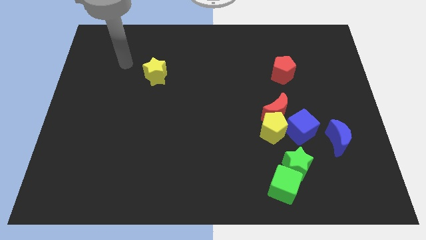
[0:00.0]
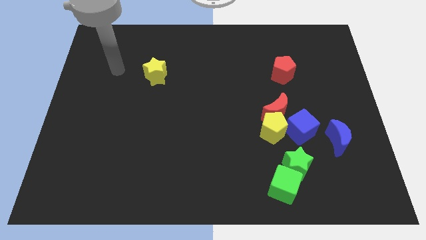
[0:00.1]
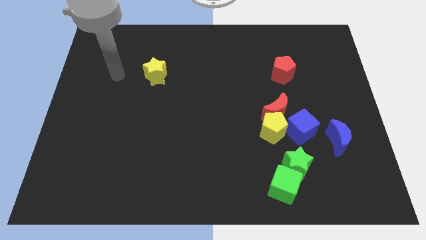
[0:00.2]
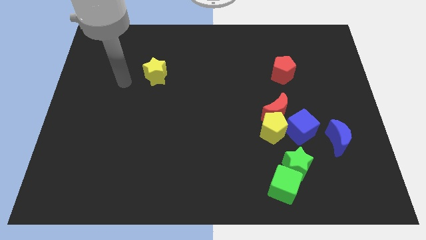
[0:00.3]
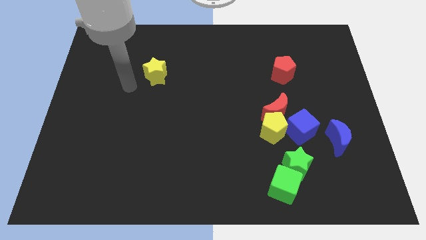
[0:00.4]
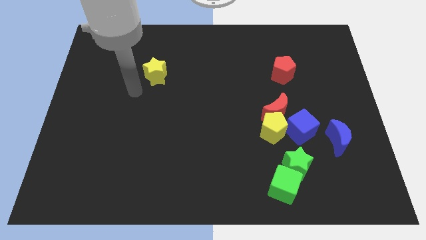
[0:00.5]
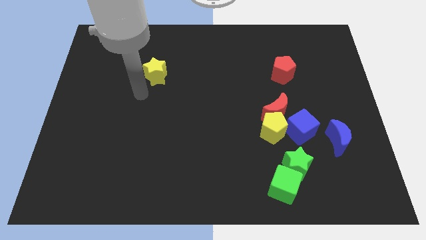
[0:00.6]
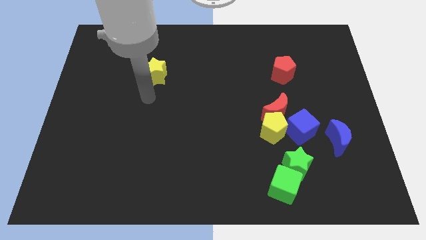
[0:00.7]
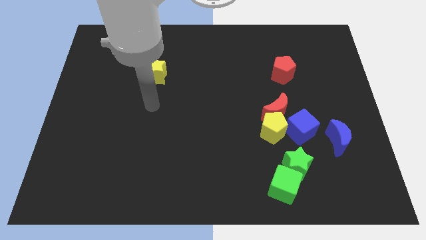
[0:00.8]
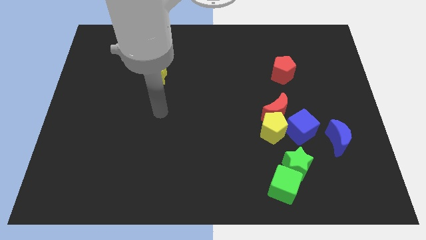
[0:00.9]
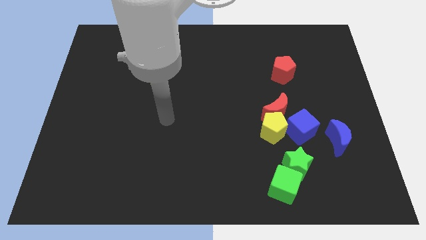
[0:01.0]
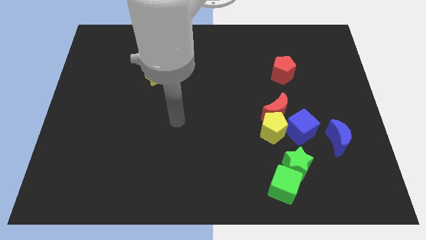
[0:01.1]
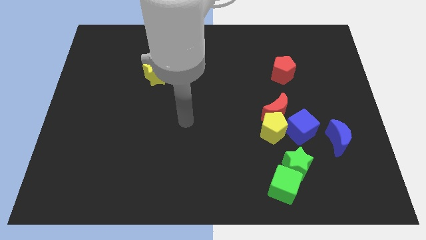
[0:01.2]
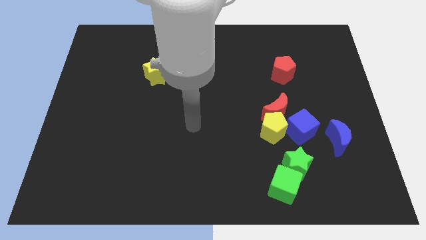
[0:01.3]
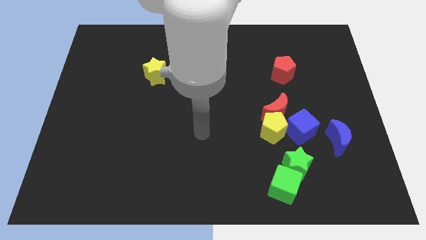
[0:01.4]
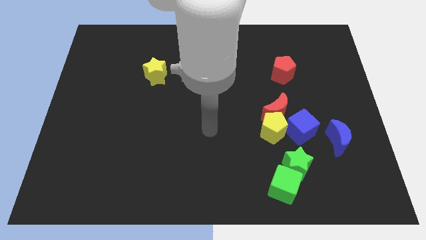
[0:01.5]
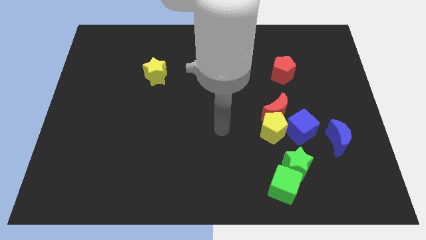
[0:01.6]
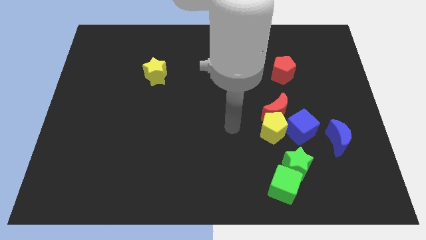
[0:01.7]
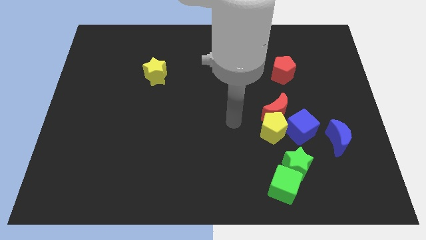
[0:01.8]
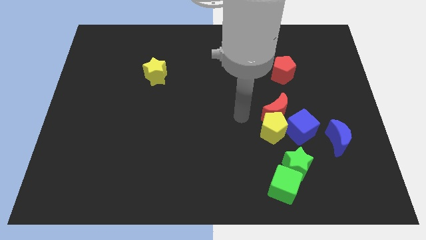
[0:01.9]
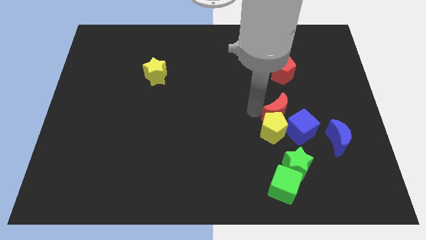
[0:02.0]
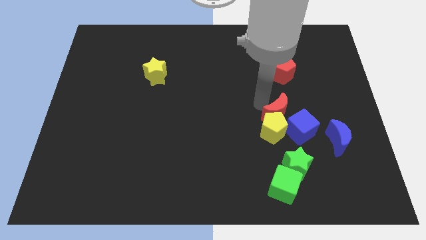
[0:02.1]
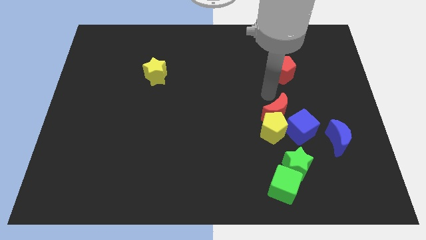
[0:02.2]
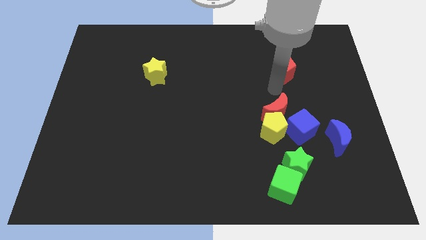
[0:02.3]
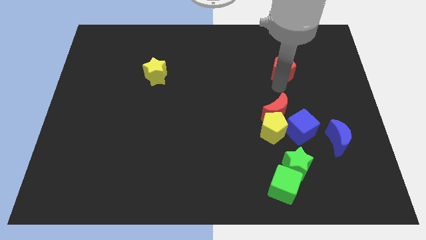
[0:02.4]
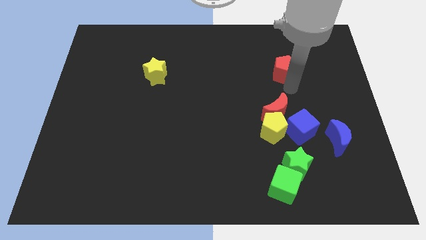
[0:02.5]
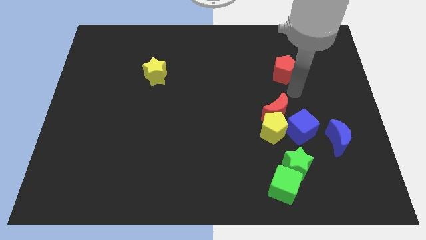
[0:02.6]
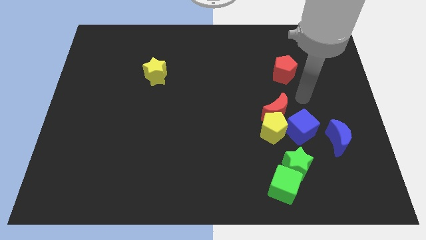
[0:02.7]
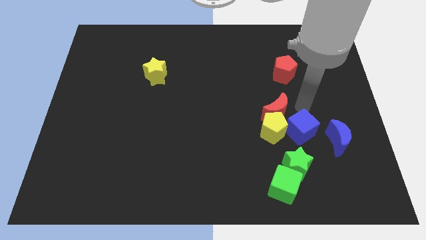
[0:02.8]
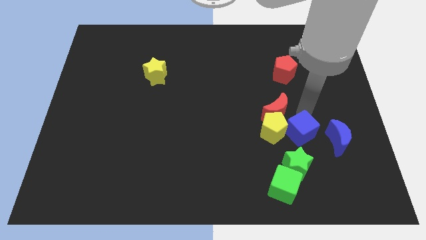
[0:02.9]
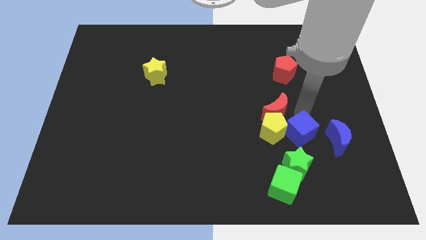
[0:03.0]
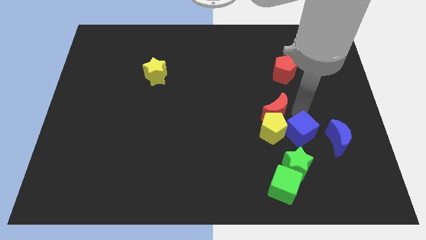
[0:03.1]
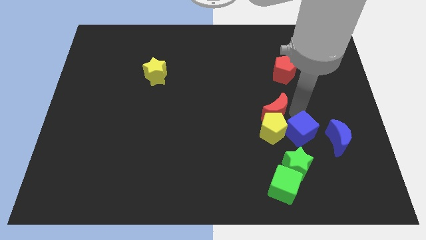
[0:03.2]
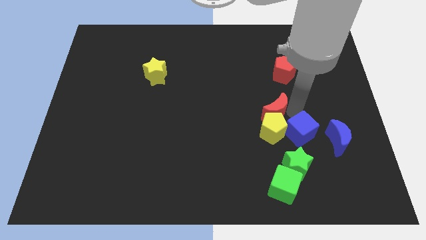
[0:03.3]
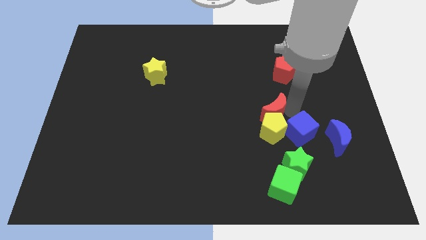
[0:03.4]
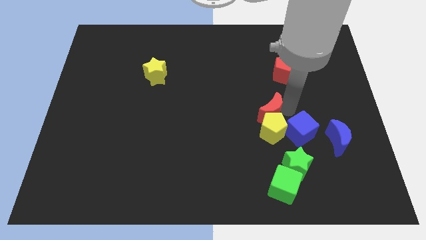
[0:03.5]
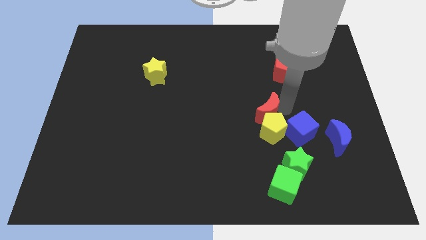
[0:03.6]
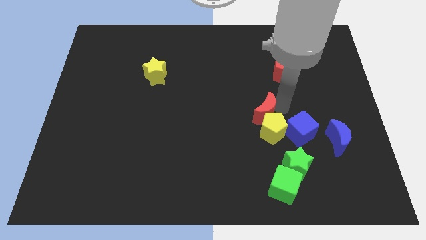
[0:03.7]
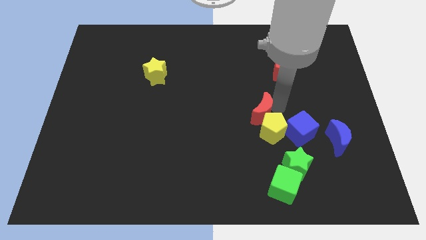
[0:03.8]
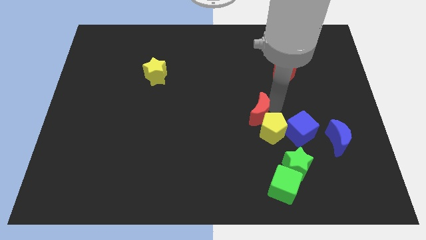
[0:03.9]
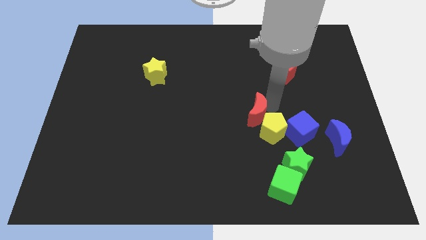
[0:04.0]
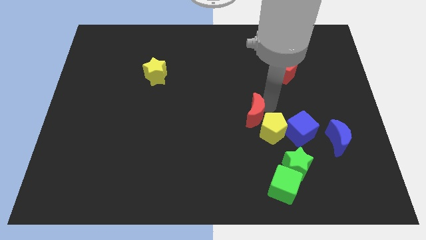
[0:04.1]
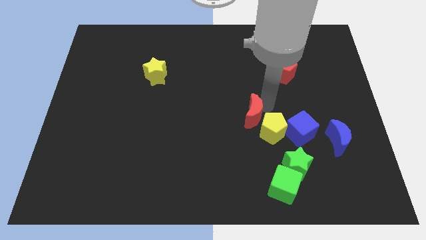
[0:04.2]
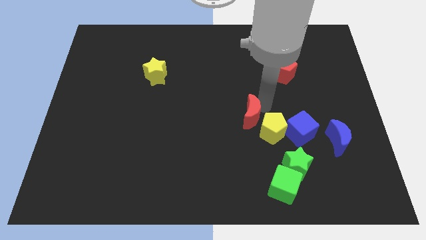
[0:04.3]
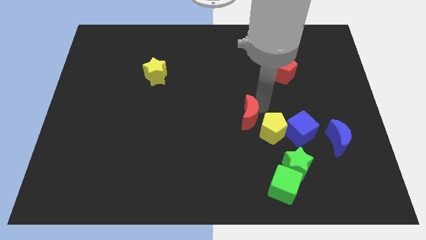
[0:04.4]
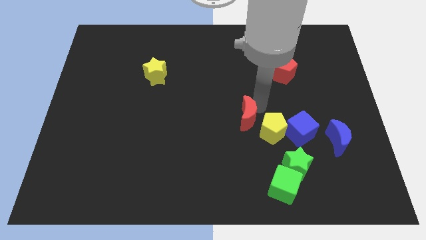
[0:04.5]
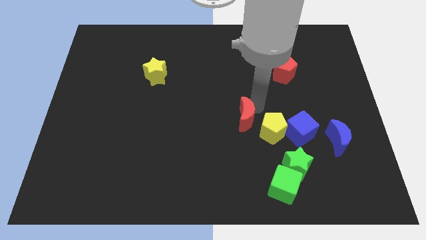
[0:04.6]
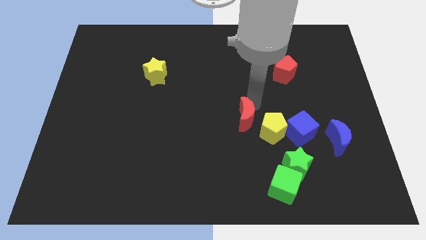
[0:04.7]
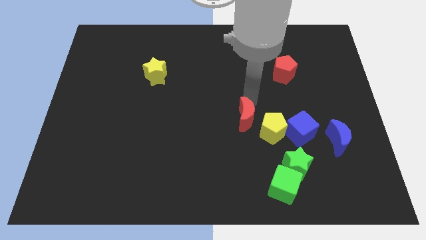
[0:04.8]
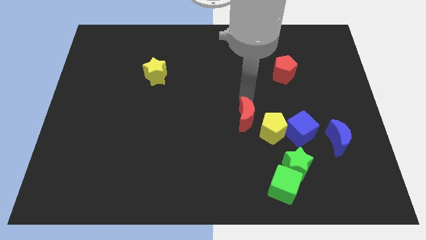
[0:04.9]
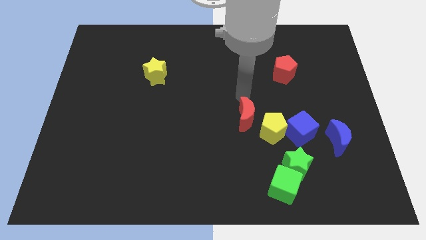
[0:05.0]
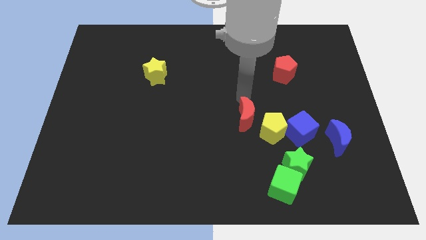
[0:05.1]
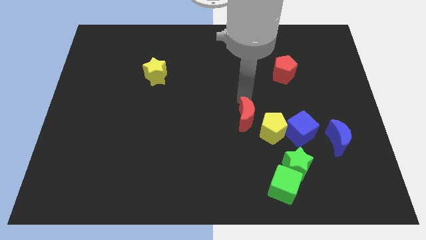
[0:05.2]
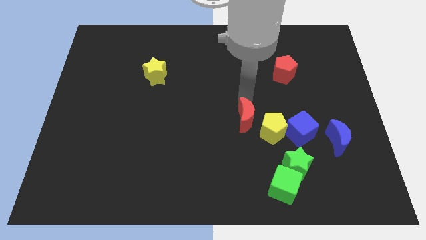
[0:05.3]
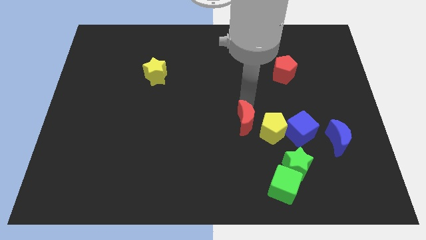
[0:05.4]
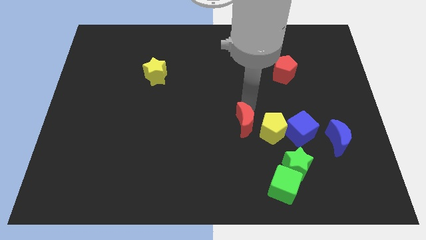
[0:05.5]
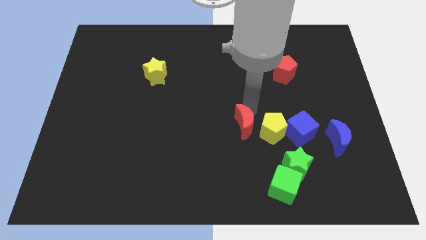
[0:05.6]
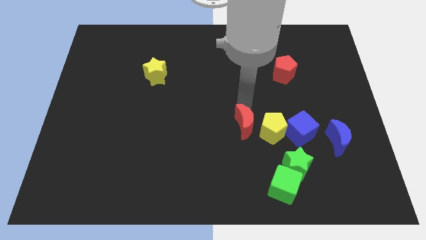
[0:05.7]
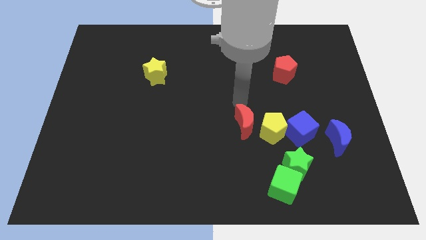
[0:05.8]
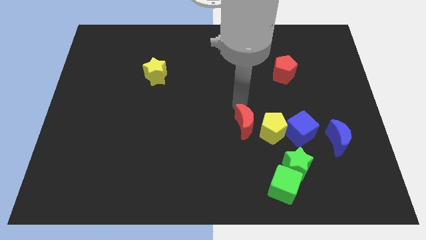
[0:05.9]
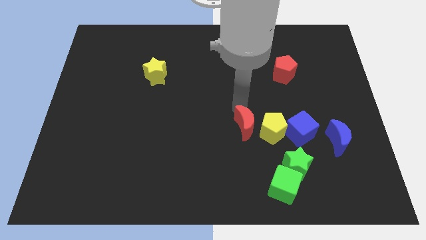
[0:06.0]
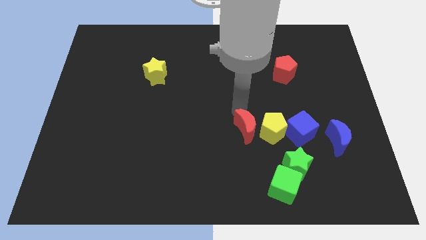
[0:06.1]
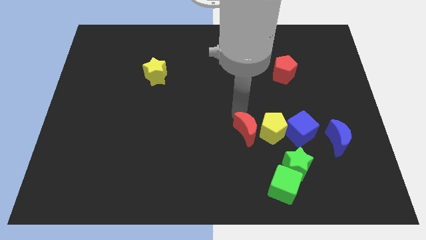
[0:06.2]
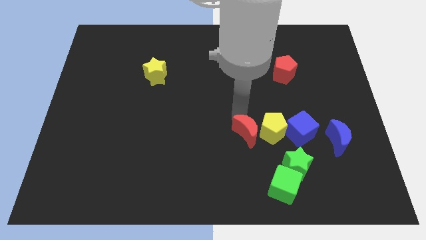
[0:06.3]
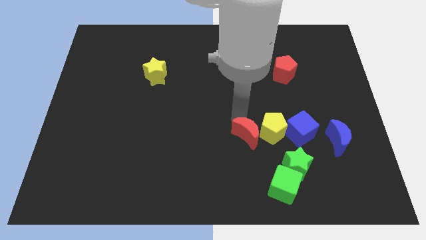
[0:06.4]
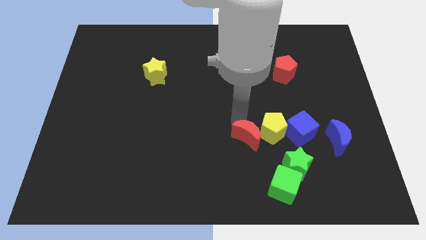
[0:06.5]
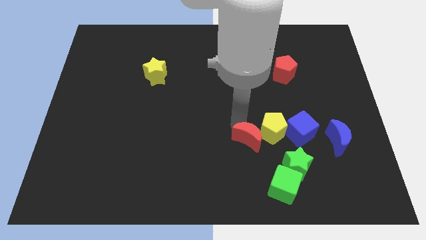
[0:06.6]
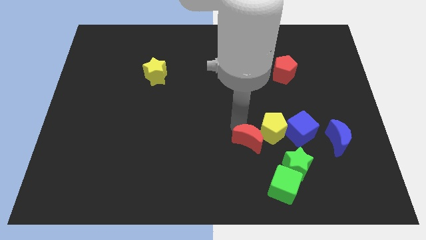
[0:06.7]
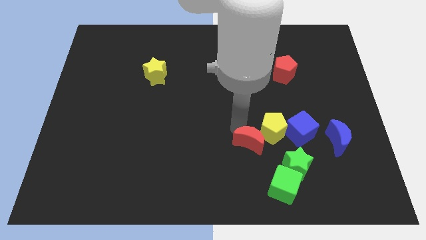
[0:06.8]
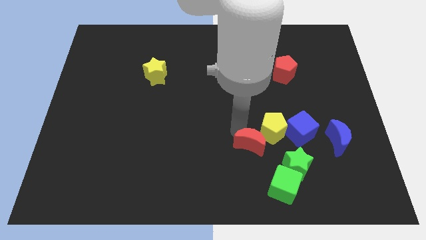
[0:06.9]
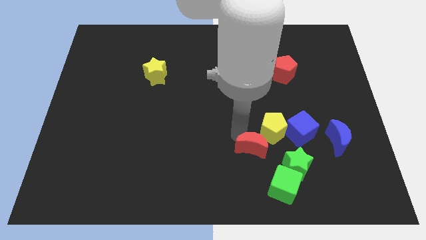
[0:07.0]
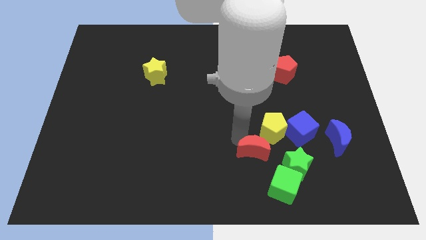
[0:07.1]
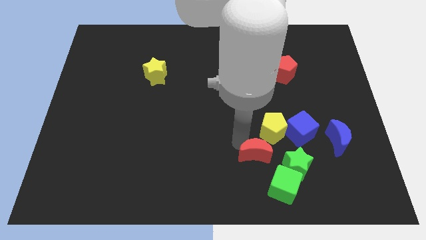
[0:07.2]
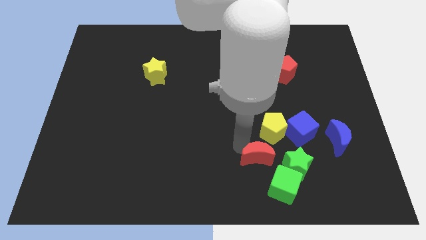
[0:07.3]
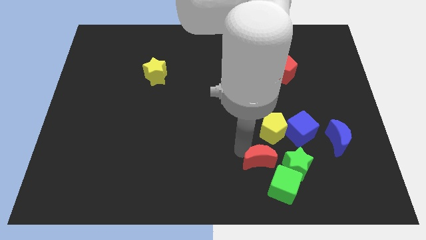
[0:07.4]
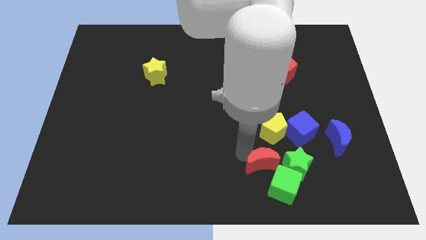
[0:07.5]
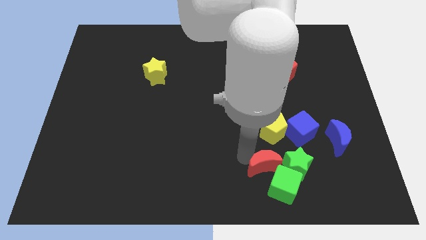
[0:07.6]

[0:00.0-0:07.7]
slide the red moon close to the green cube
